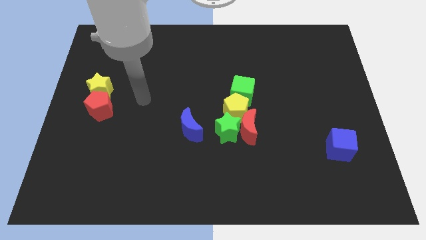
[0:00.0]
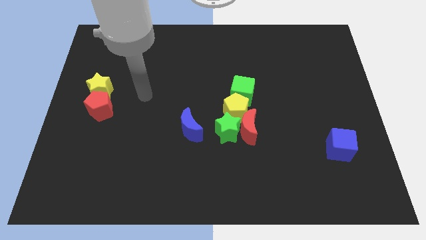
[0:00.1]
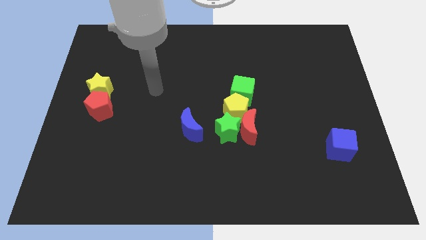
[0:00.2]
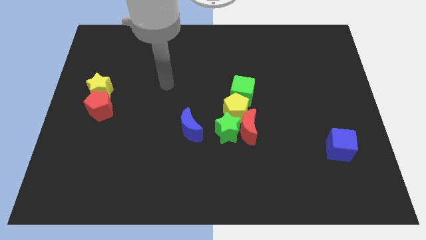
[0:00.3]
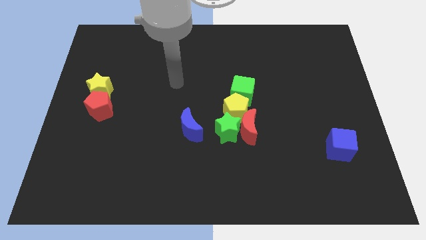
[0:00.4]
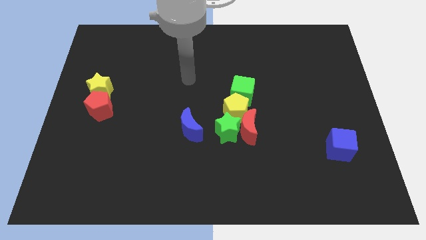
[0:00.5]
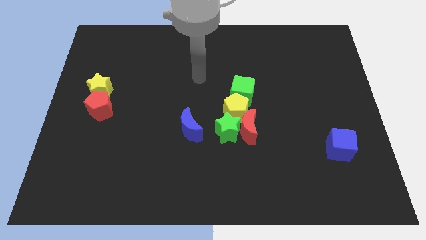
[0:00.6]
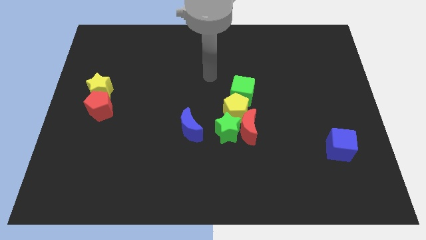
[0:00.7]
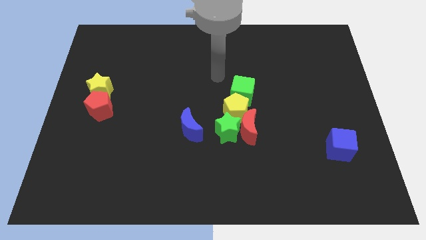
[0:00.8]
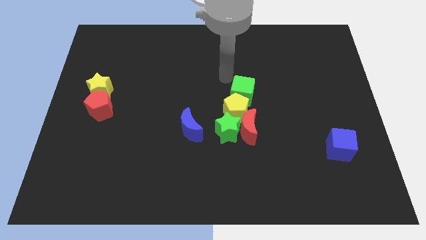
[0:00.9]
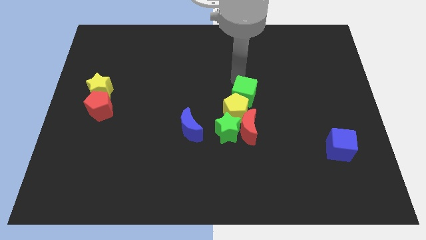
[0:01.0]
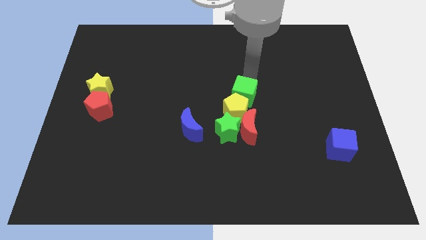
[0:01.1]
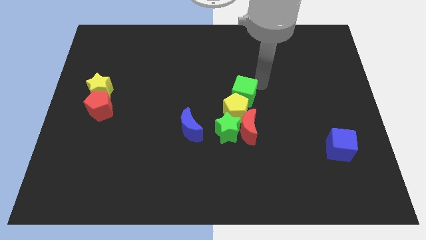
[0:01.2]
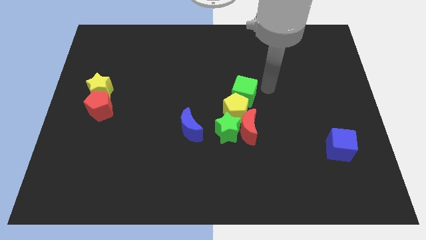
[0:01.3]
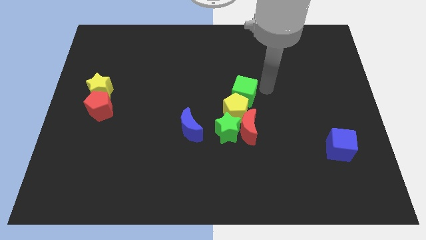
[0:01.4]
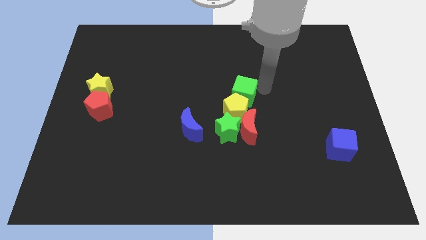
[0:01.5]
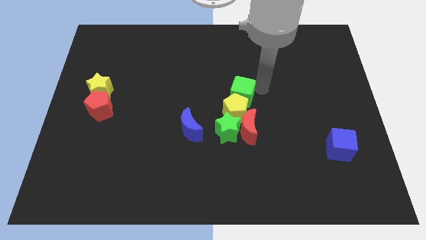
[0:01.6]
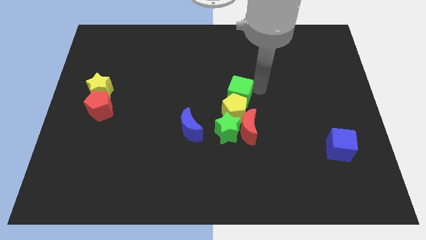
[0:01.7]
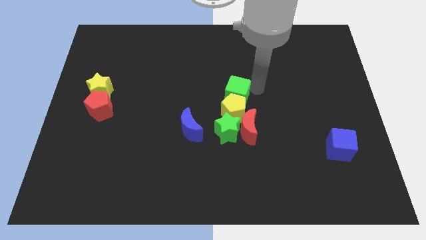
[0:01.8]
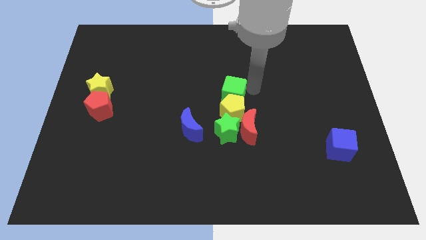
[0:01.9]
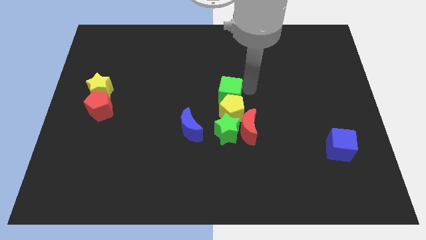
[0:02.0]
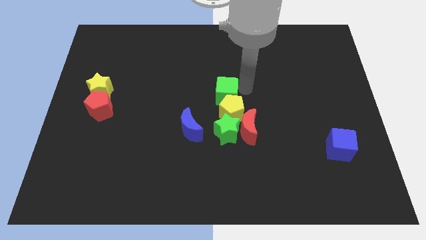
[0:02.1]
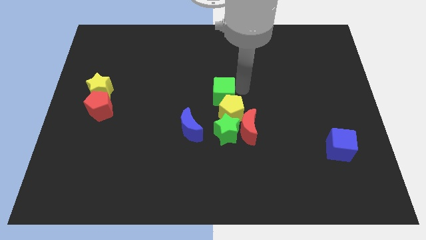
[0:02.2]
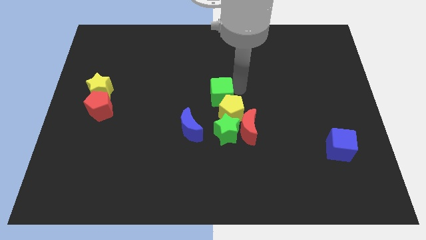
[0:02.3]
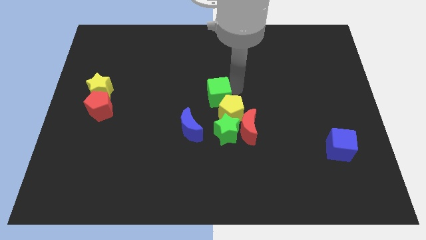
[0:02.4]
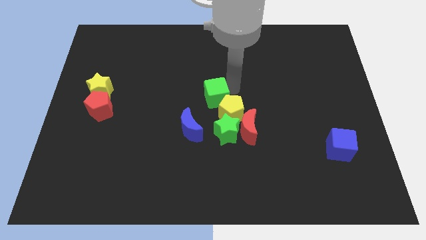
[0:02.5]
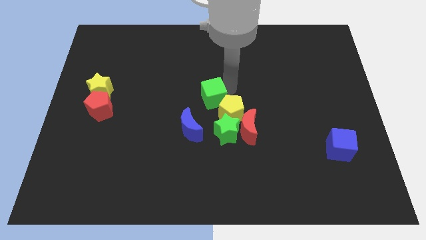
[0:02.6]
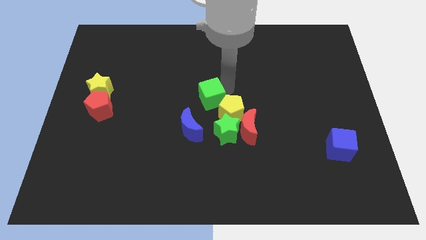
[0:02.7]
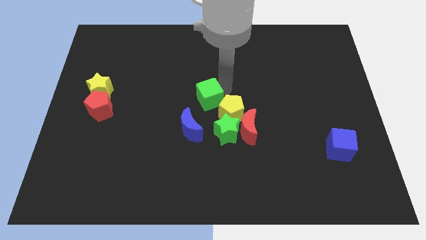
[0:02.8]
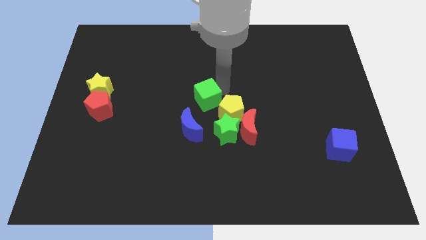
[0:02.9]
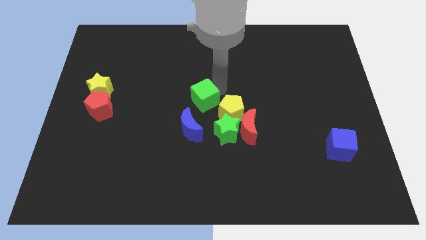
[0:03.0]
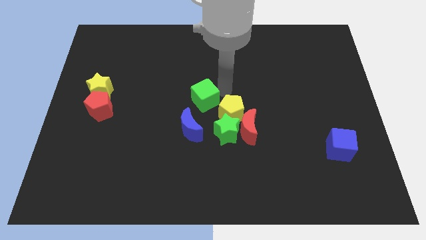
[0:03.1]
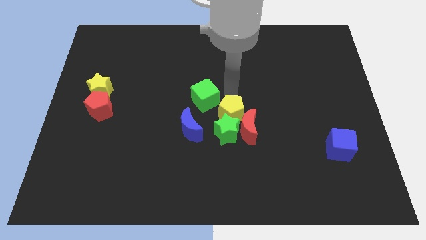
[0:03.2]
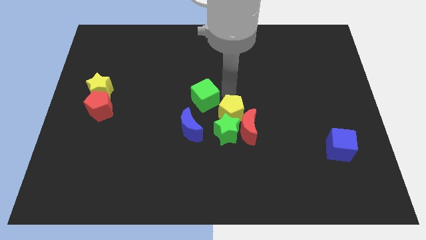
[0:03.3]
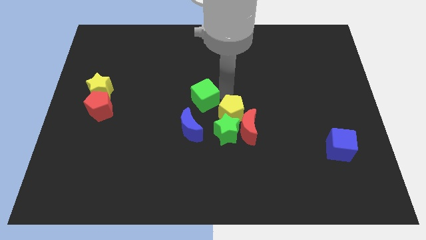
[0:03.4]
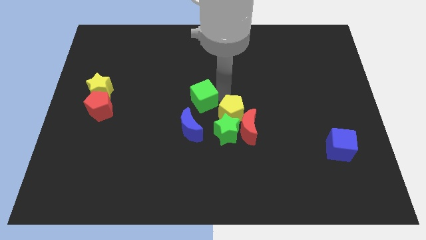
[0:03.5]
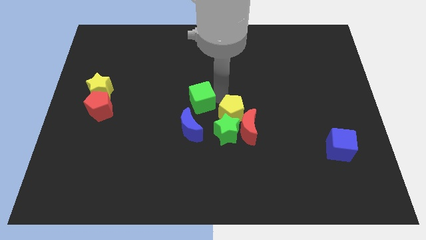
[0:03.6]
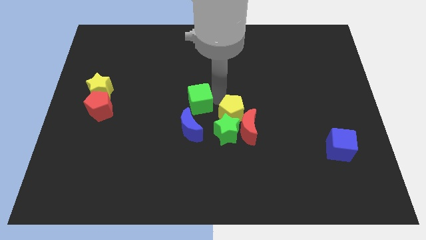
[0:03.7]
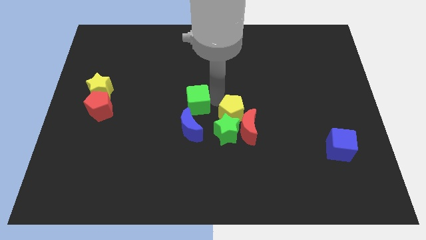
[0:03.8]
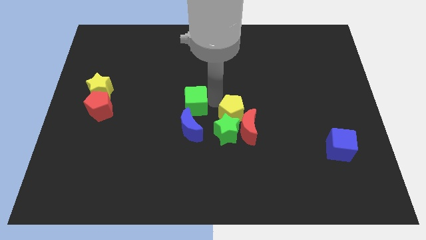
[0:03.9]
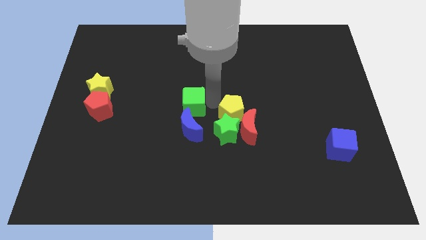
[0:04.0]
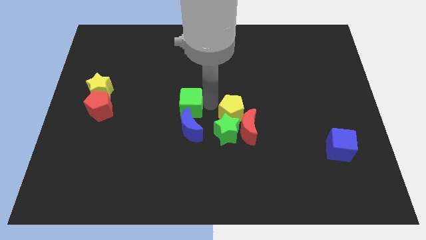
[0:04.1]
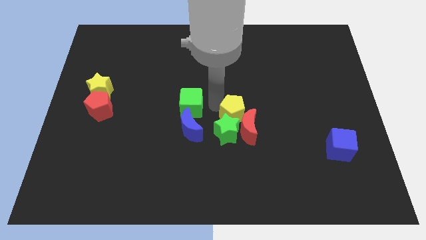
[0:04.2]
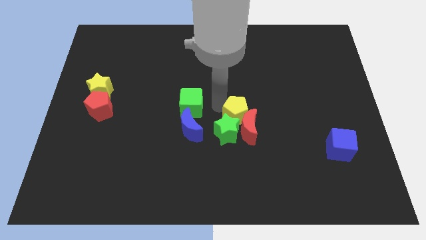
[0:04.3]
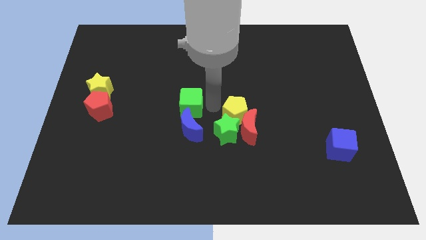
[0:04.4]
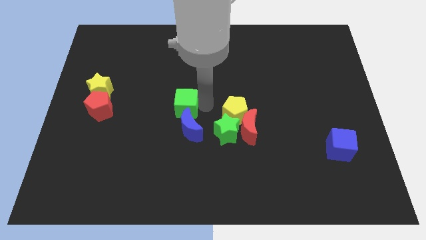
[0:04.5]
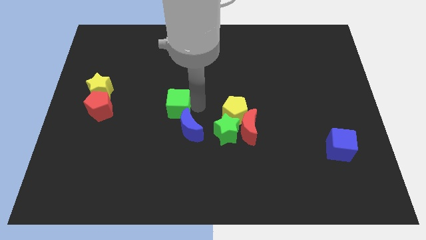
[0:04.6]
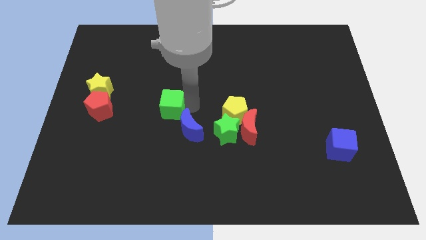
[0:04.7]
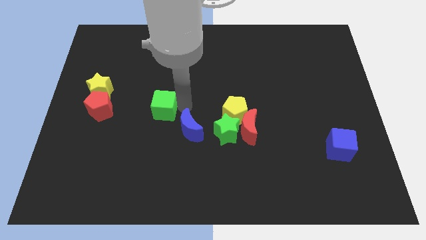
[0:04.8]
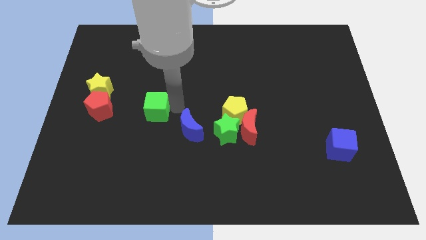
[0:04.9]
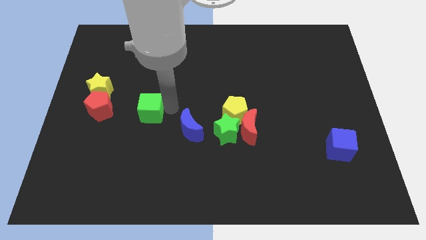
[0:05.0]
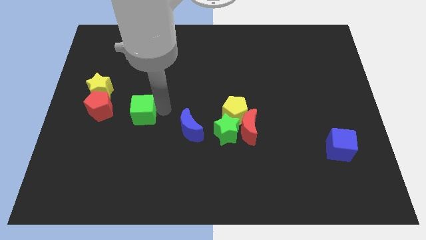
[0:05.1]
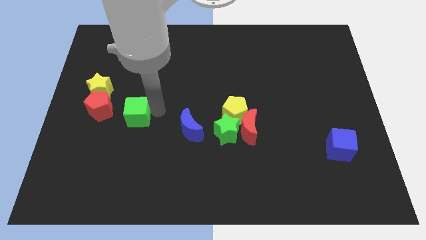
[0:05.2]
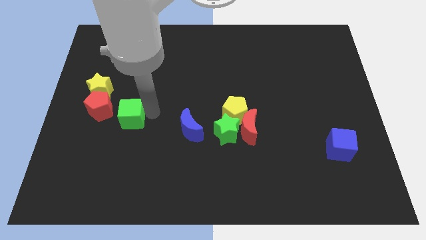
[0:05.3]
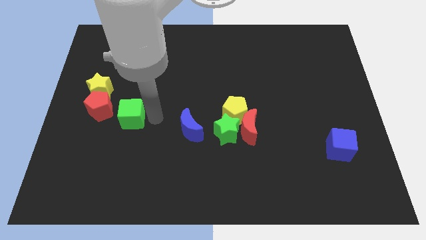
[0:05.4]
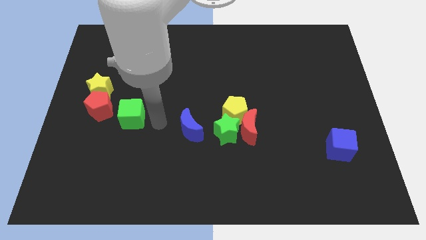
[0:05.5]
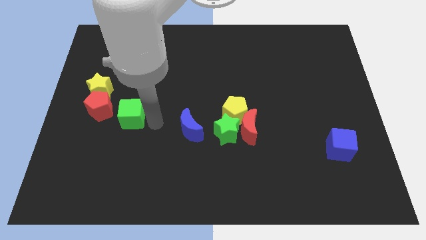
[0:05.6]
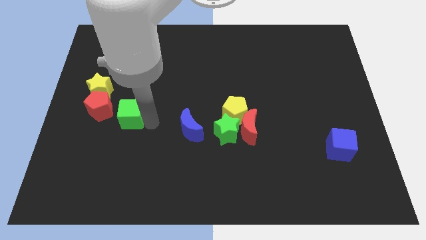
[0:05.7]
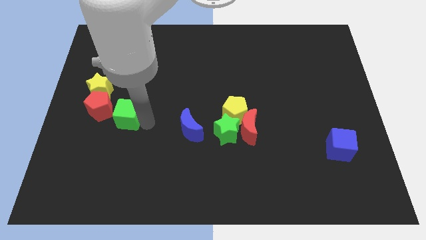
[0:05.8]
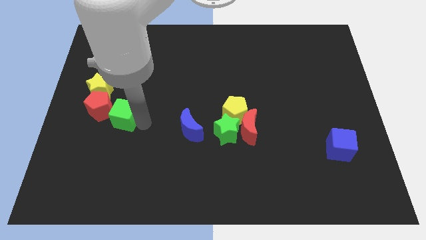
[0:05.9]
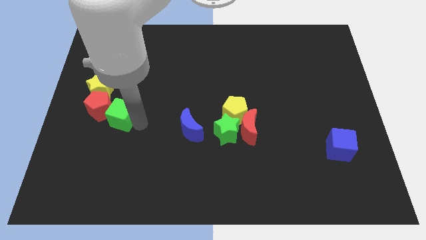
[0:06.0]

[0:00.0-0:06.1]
slide the green cube close to the red pentagon
